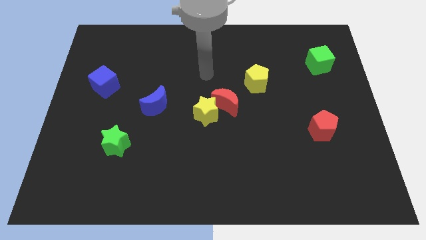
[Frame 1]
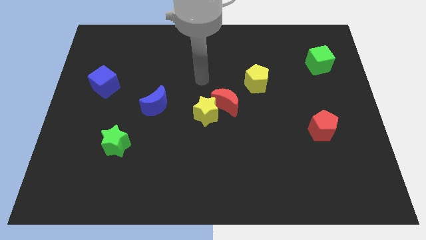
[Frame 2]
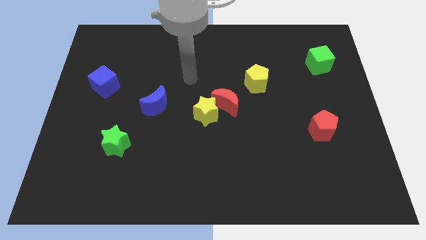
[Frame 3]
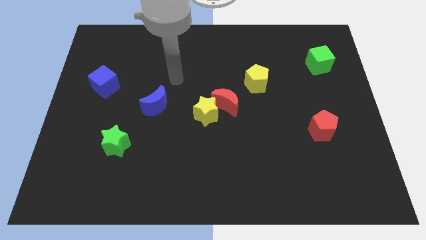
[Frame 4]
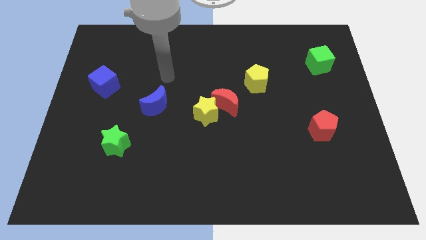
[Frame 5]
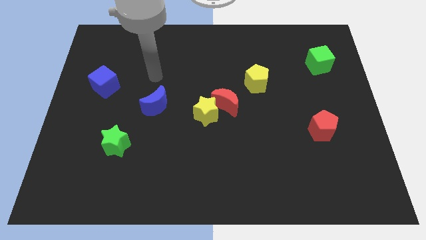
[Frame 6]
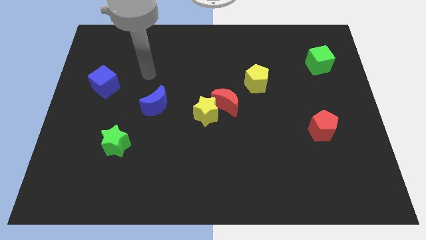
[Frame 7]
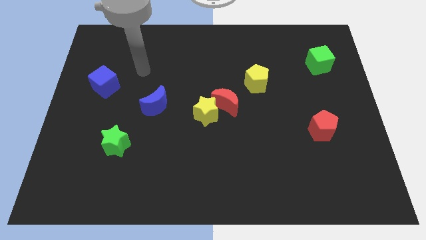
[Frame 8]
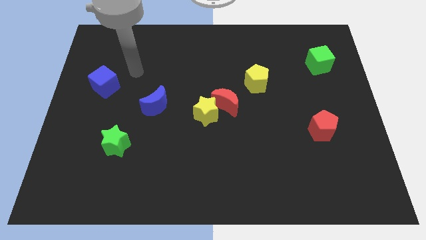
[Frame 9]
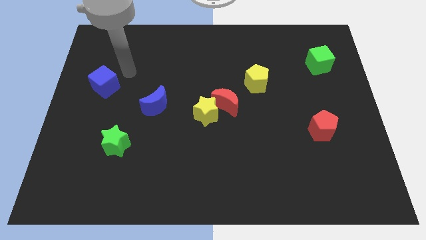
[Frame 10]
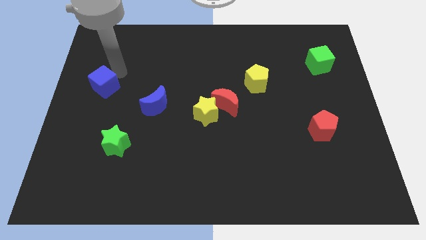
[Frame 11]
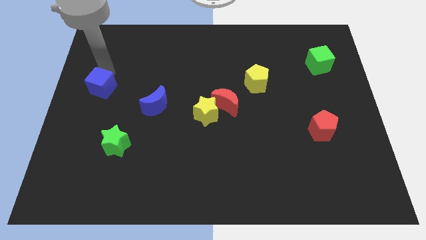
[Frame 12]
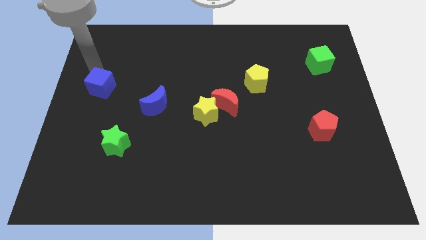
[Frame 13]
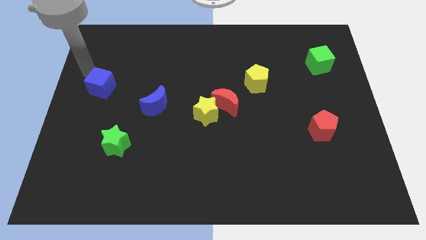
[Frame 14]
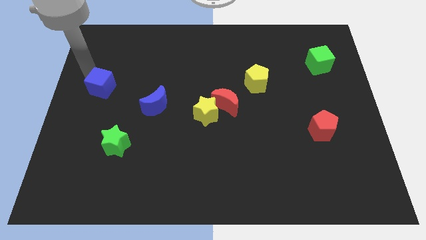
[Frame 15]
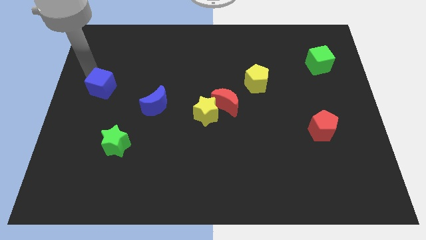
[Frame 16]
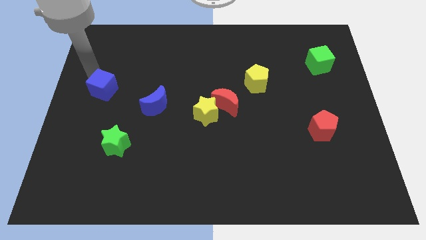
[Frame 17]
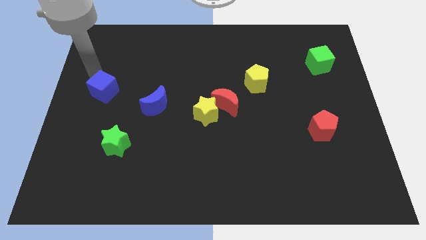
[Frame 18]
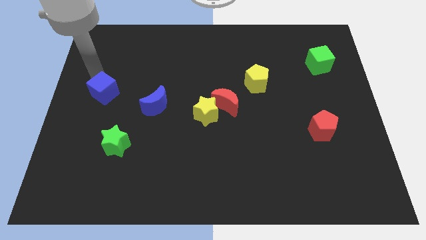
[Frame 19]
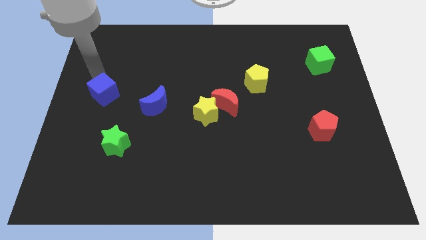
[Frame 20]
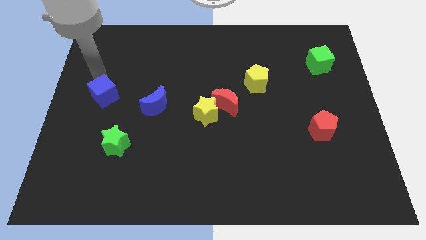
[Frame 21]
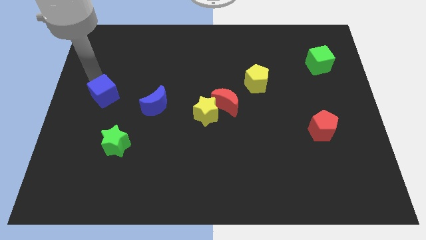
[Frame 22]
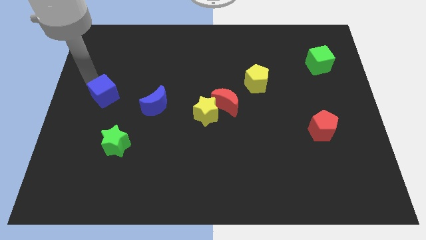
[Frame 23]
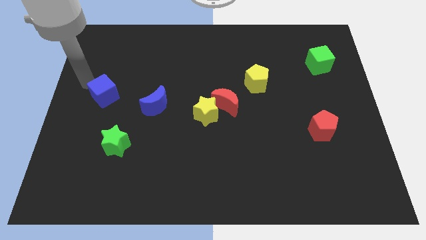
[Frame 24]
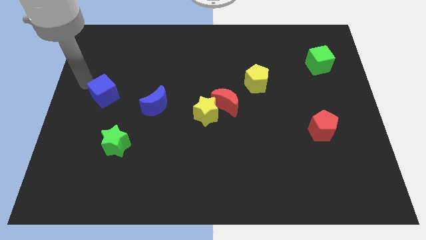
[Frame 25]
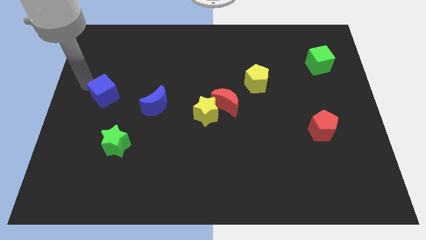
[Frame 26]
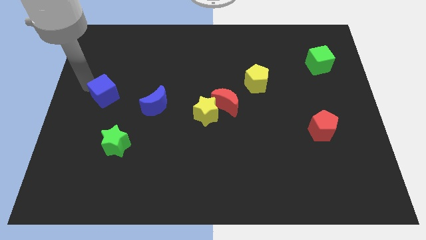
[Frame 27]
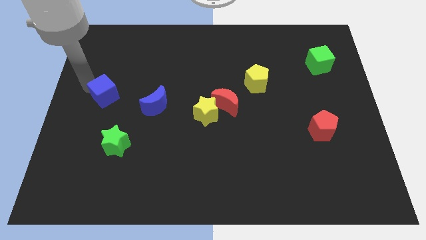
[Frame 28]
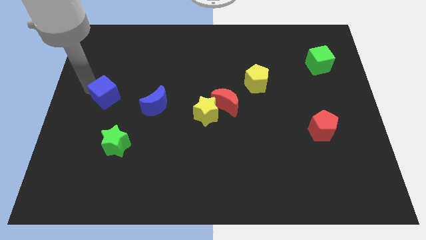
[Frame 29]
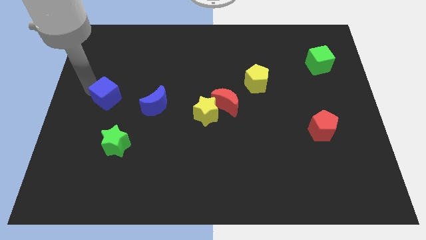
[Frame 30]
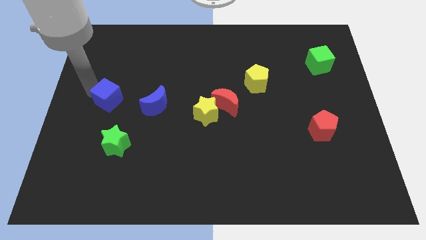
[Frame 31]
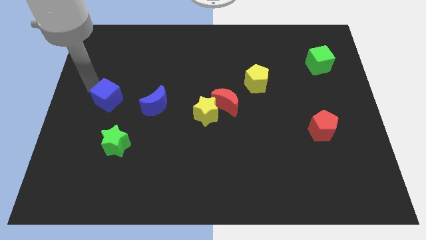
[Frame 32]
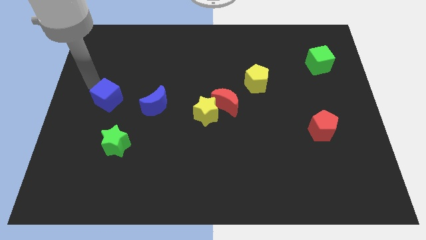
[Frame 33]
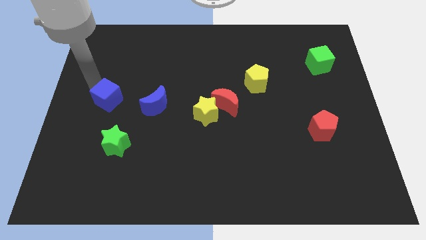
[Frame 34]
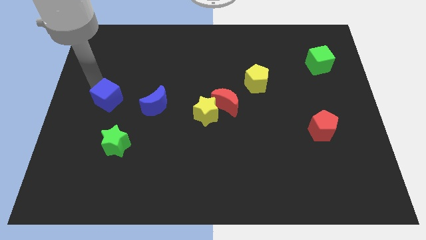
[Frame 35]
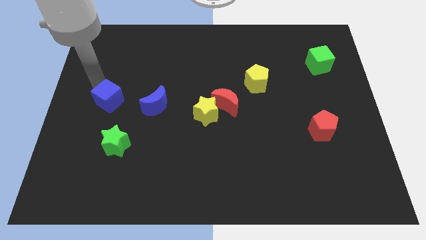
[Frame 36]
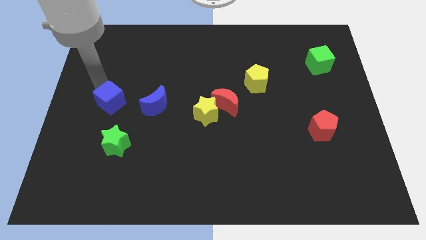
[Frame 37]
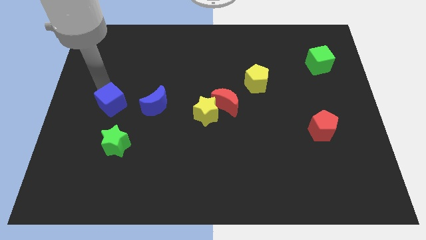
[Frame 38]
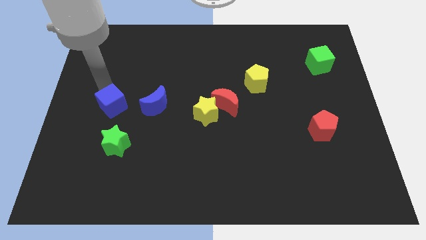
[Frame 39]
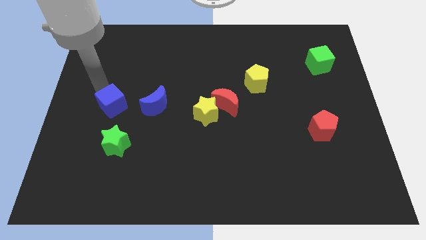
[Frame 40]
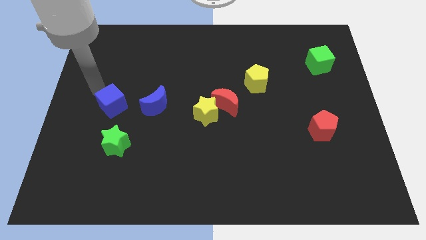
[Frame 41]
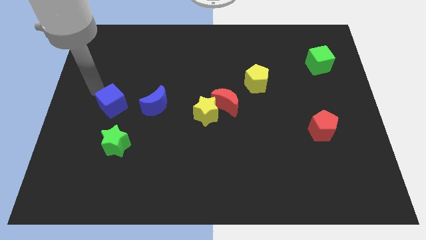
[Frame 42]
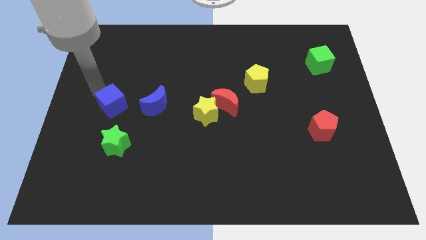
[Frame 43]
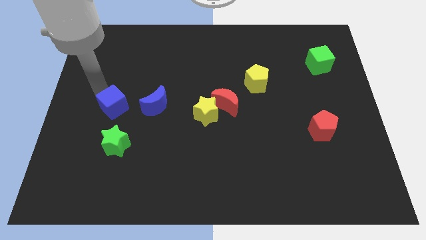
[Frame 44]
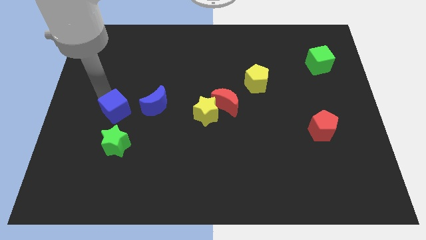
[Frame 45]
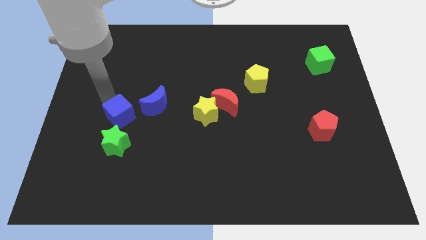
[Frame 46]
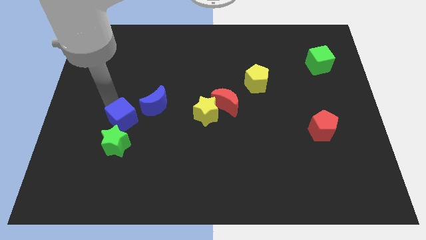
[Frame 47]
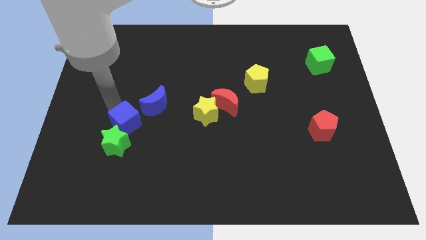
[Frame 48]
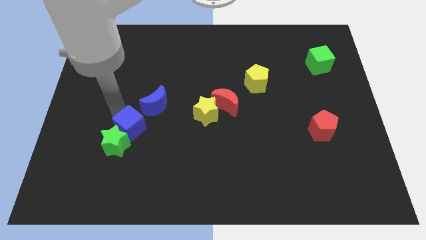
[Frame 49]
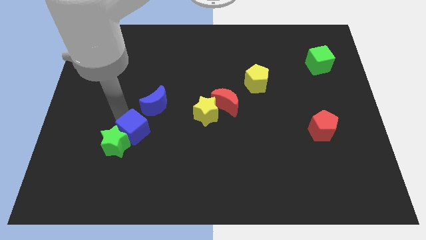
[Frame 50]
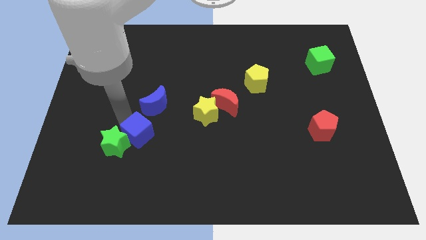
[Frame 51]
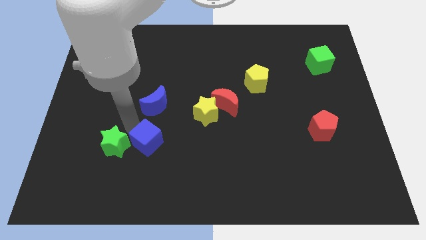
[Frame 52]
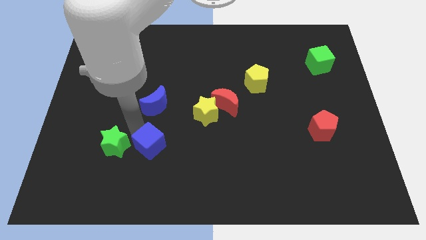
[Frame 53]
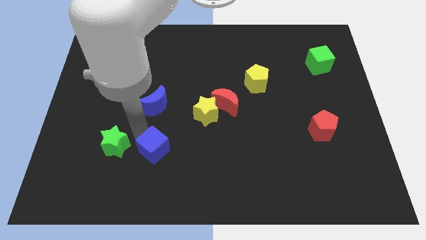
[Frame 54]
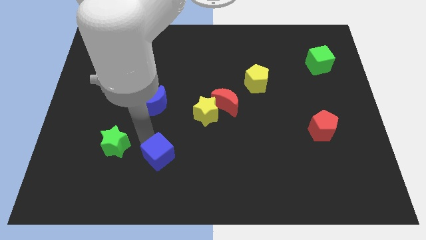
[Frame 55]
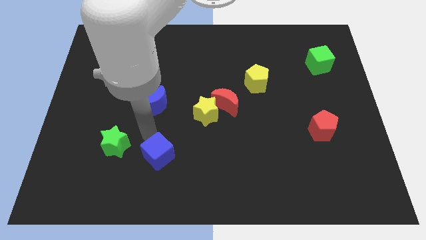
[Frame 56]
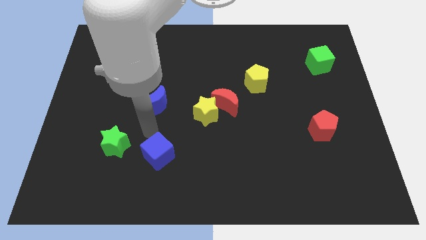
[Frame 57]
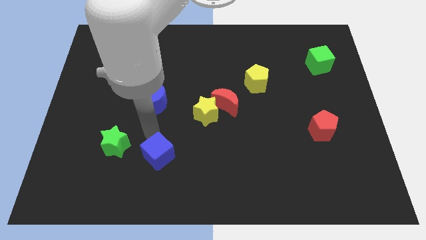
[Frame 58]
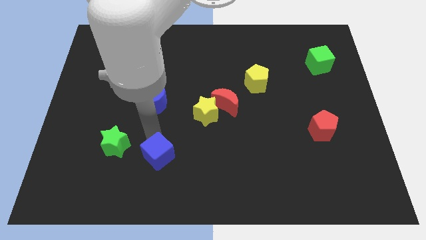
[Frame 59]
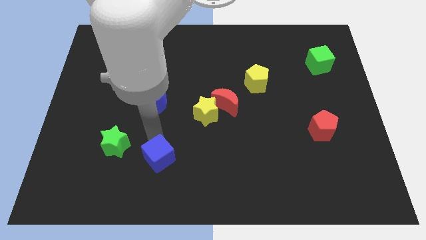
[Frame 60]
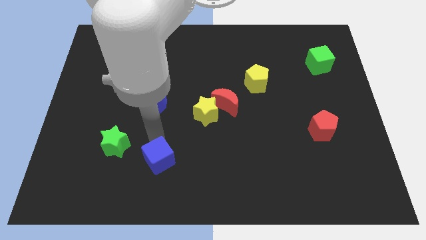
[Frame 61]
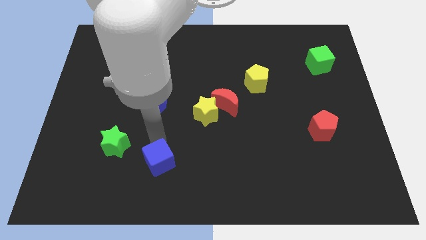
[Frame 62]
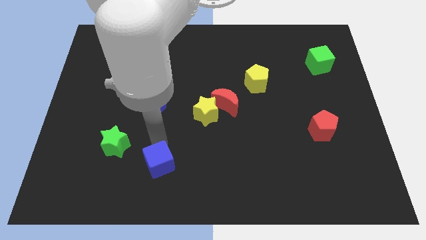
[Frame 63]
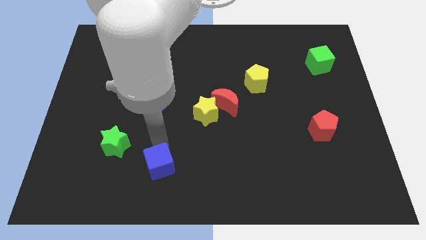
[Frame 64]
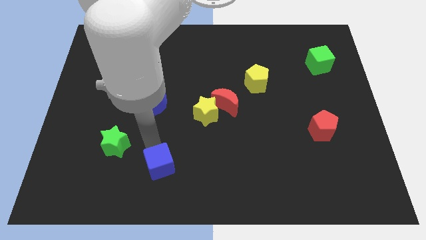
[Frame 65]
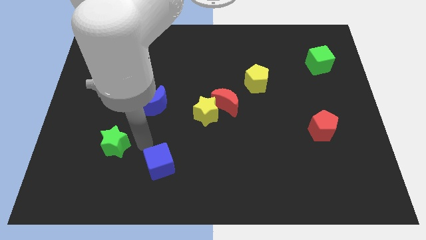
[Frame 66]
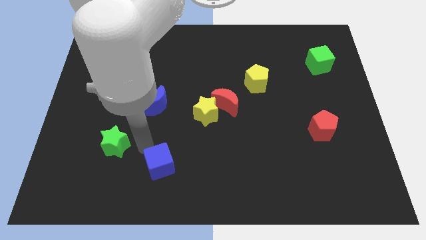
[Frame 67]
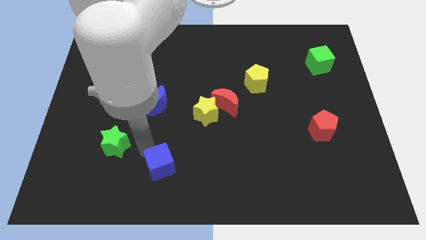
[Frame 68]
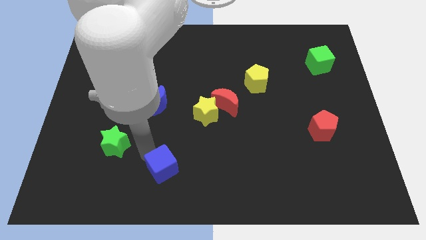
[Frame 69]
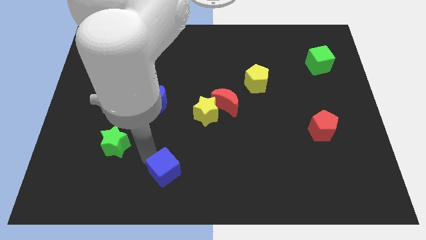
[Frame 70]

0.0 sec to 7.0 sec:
slide the blue cube to the bottom
